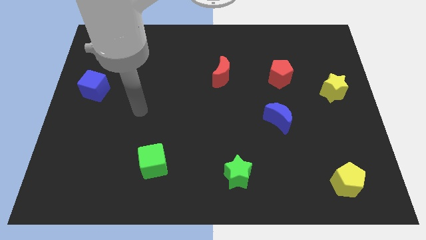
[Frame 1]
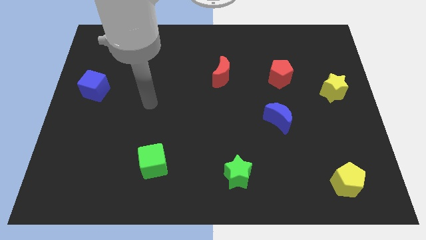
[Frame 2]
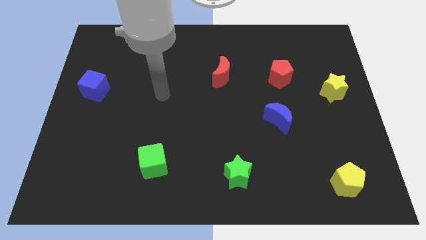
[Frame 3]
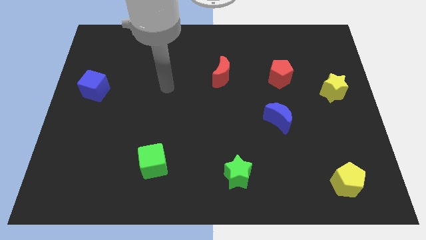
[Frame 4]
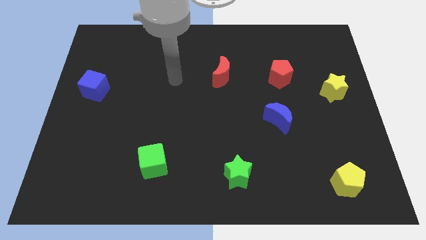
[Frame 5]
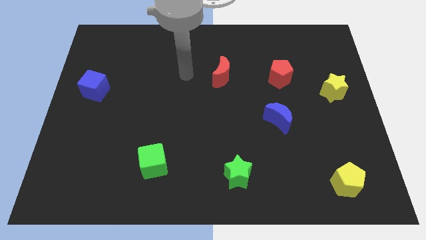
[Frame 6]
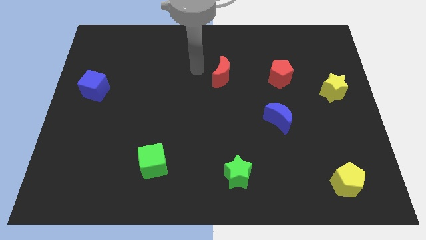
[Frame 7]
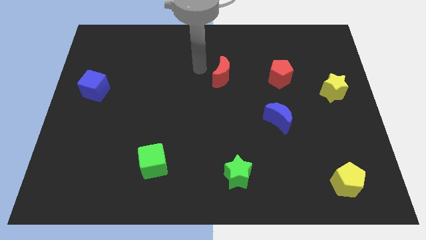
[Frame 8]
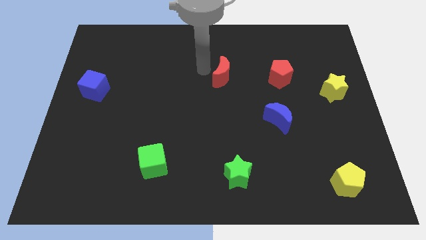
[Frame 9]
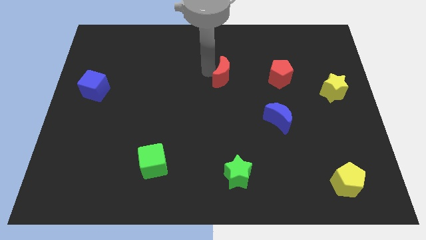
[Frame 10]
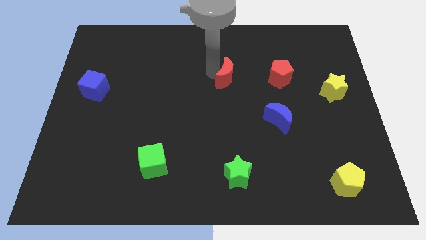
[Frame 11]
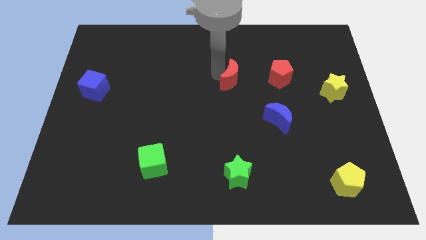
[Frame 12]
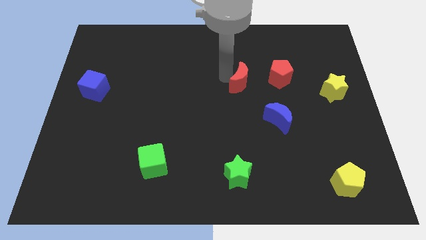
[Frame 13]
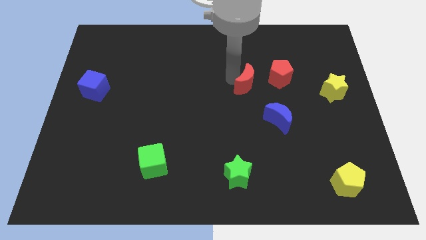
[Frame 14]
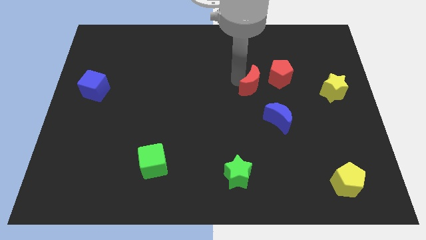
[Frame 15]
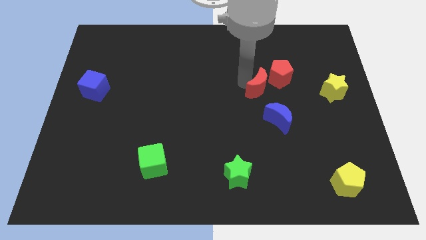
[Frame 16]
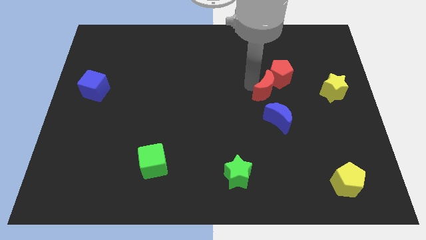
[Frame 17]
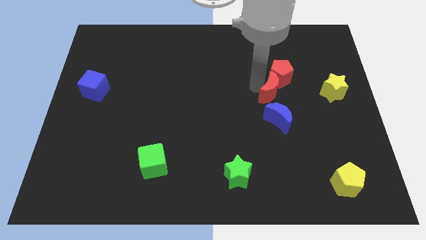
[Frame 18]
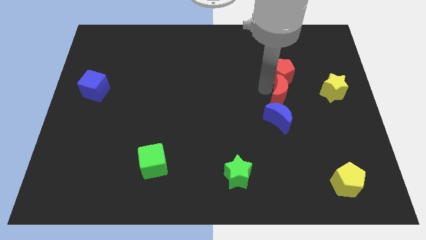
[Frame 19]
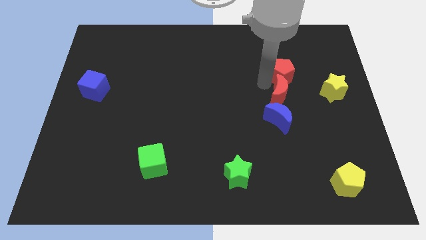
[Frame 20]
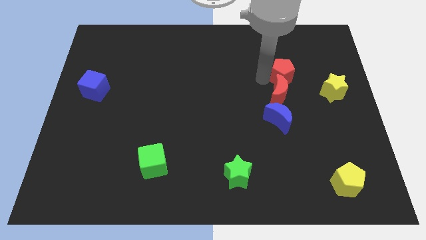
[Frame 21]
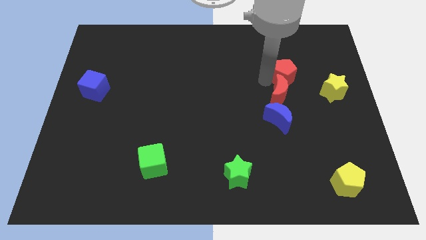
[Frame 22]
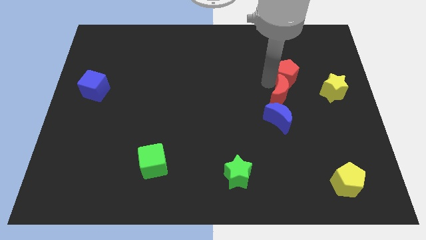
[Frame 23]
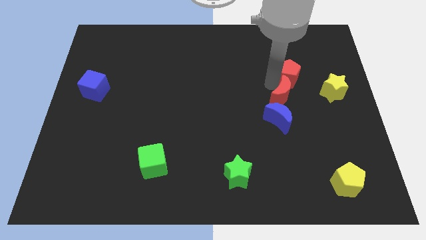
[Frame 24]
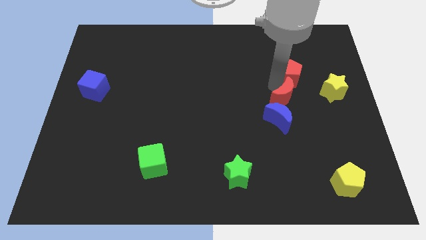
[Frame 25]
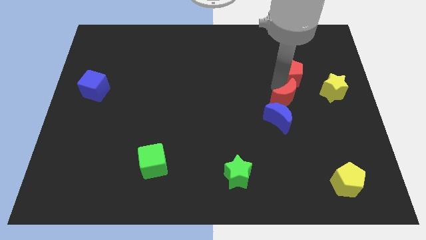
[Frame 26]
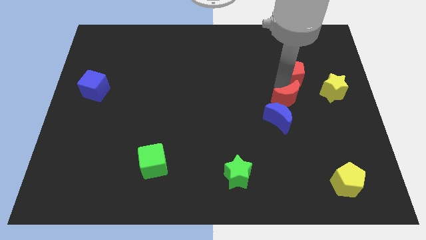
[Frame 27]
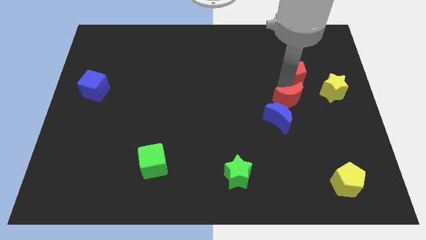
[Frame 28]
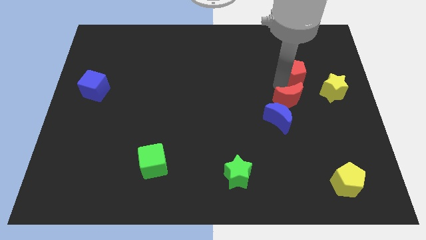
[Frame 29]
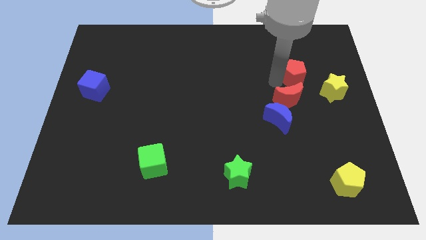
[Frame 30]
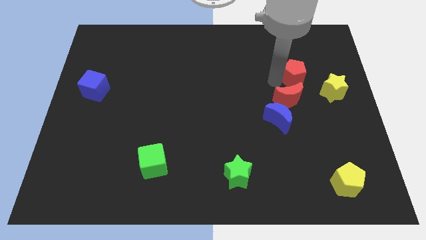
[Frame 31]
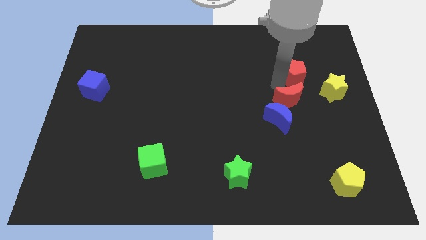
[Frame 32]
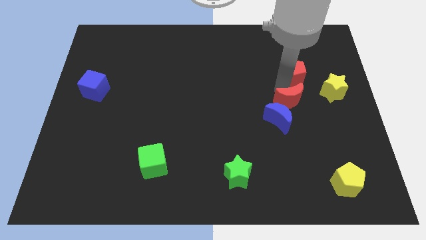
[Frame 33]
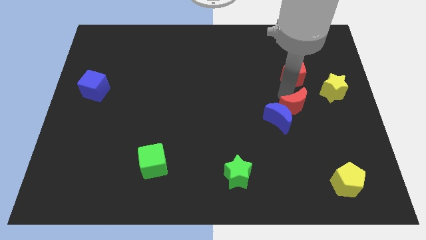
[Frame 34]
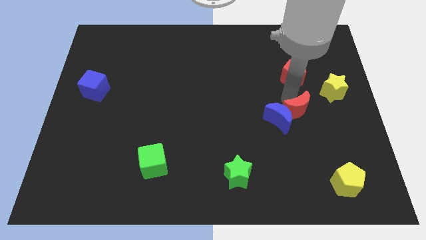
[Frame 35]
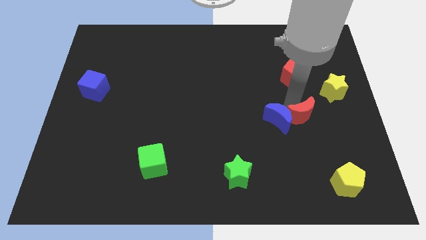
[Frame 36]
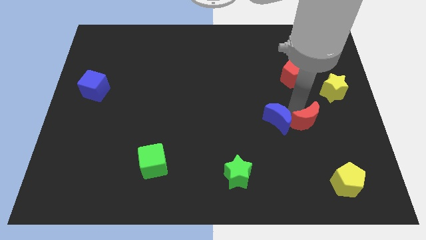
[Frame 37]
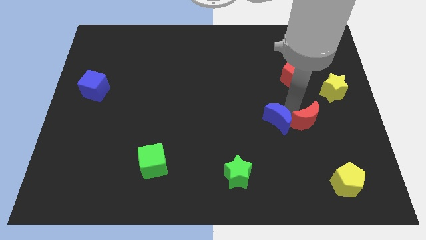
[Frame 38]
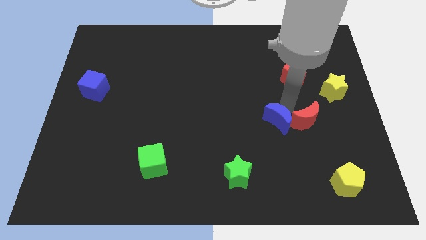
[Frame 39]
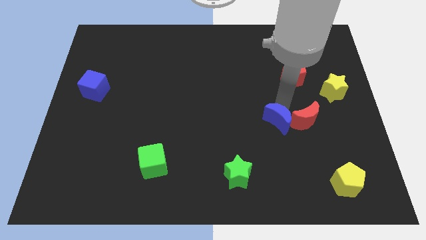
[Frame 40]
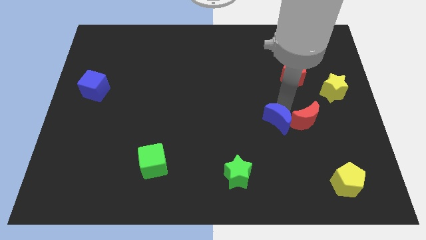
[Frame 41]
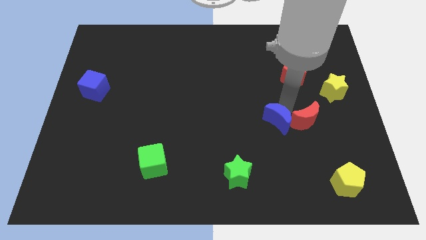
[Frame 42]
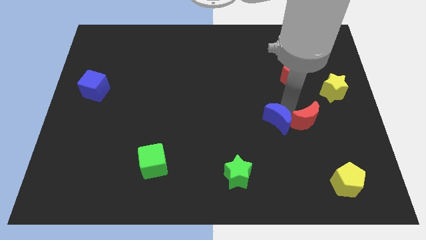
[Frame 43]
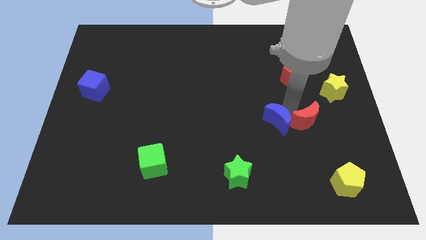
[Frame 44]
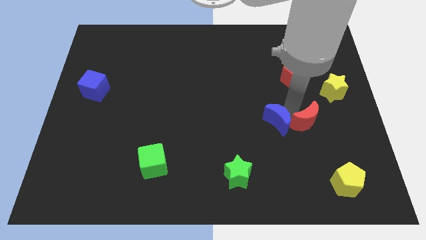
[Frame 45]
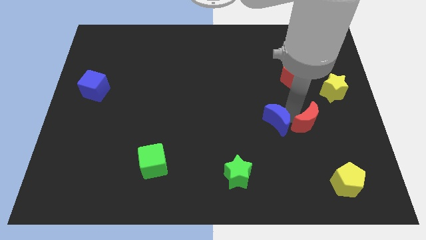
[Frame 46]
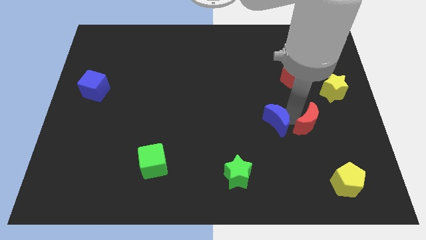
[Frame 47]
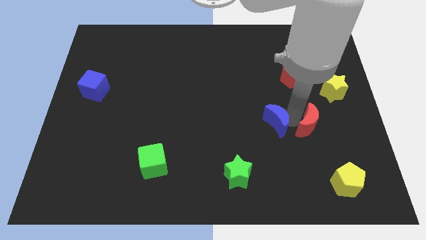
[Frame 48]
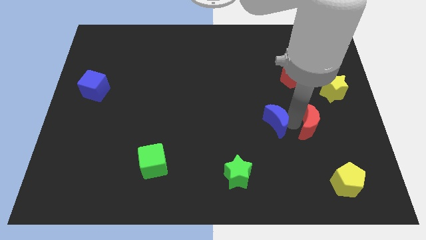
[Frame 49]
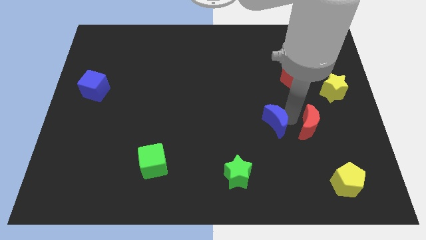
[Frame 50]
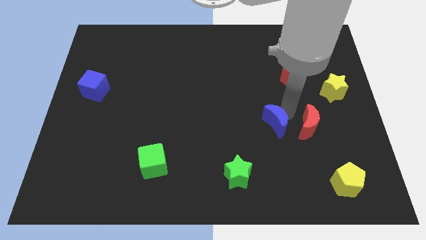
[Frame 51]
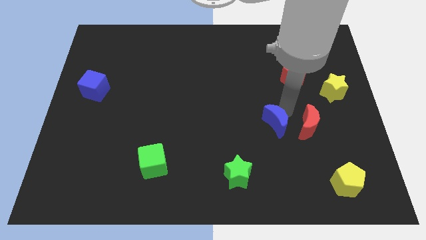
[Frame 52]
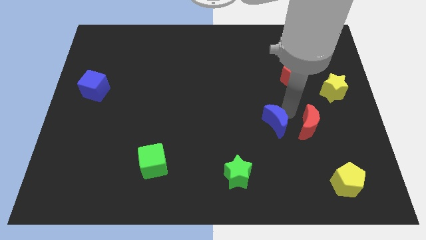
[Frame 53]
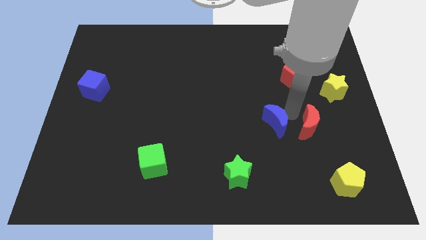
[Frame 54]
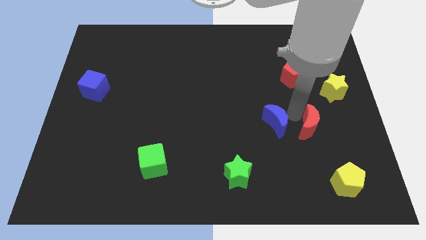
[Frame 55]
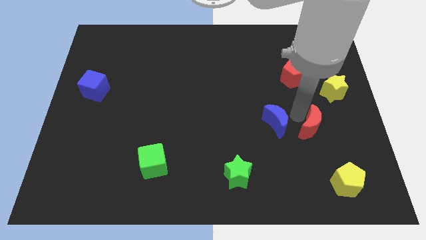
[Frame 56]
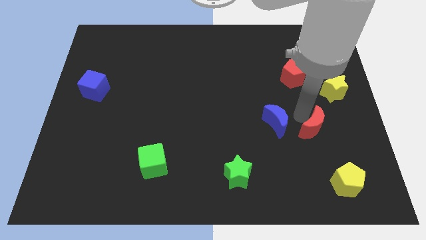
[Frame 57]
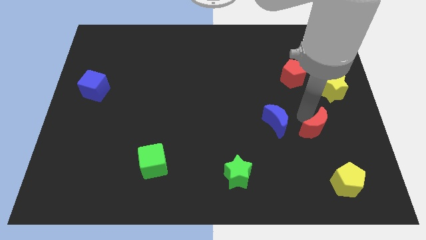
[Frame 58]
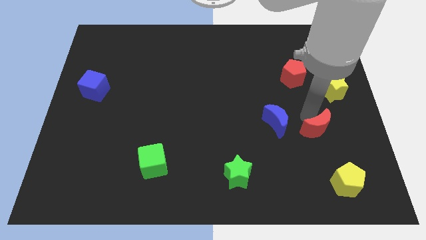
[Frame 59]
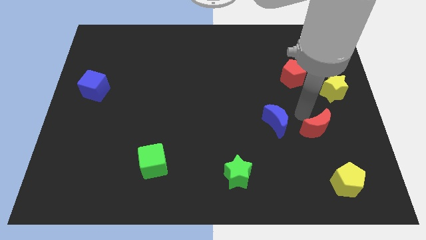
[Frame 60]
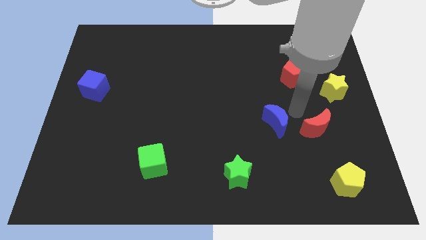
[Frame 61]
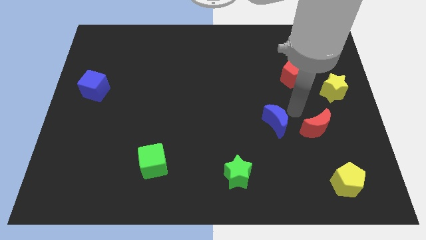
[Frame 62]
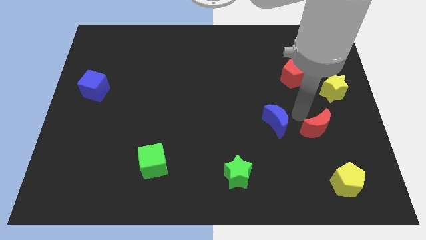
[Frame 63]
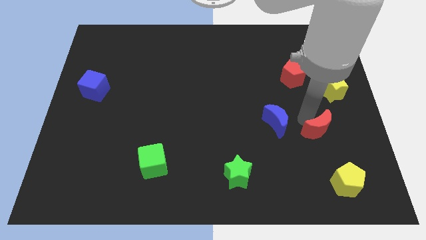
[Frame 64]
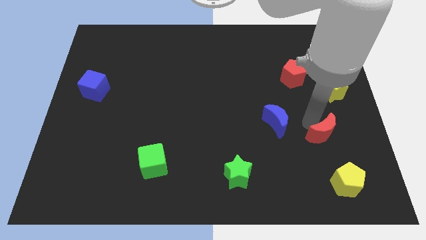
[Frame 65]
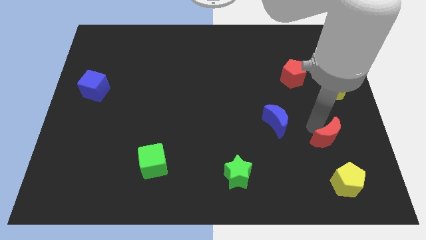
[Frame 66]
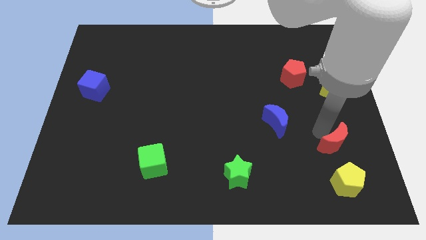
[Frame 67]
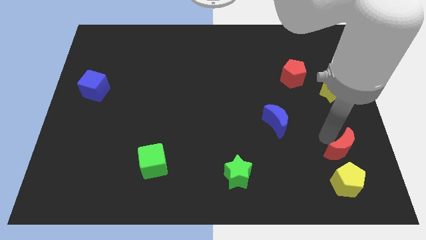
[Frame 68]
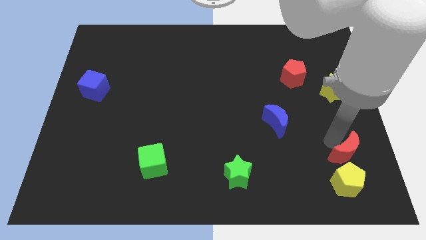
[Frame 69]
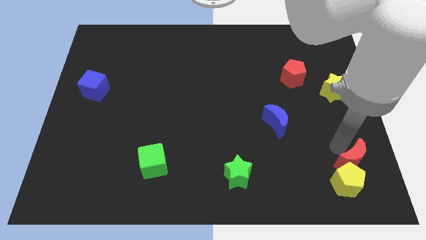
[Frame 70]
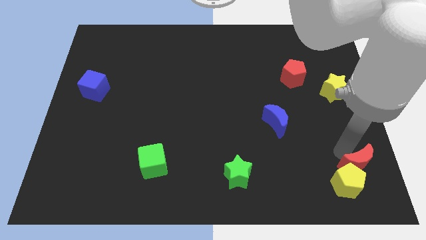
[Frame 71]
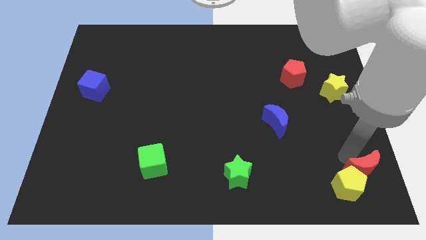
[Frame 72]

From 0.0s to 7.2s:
put the red moon to the lower right corner
